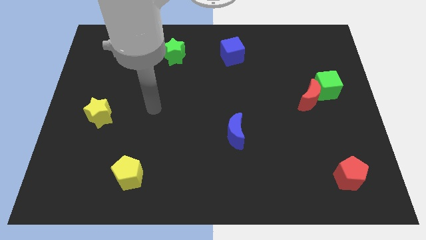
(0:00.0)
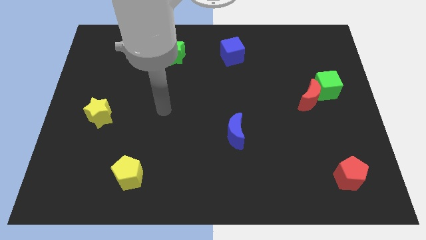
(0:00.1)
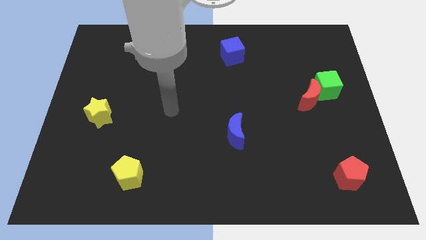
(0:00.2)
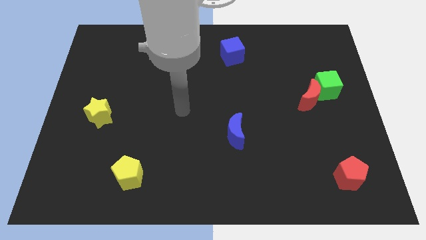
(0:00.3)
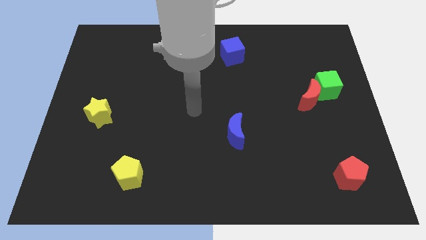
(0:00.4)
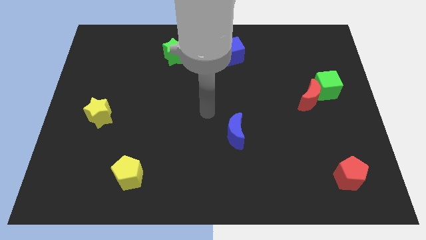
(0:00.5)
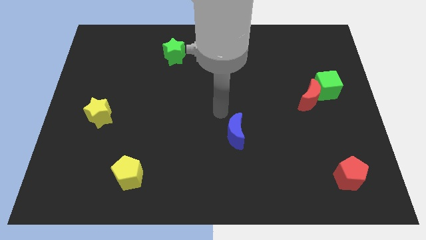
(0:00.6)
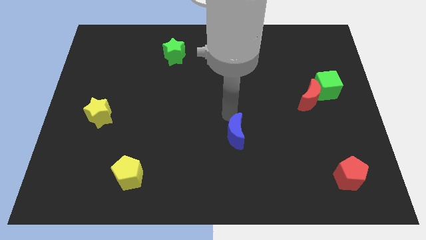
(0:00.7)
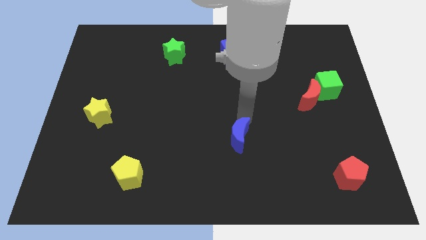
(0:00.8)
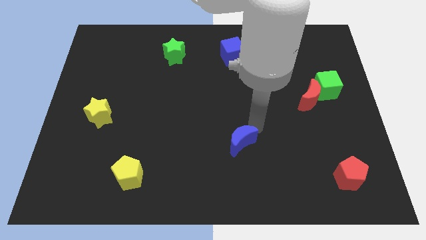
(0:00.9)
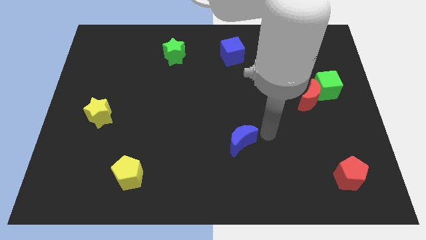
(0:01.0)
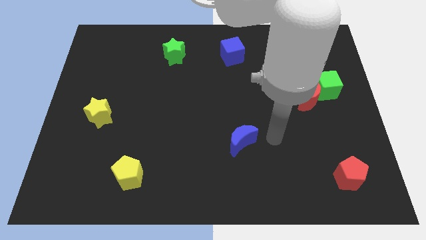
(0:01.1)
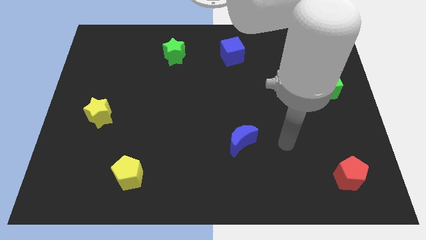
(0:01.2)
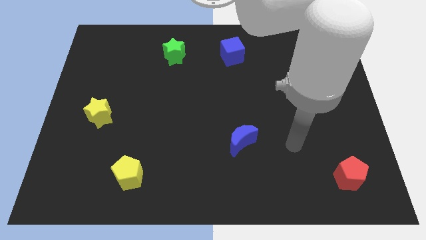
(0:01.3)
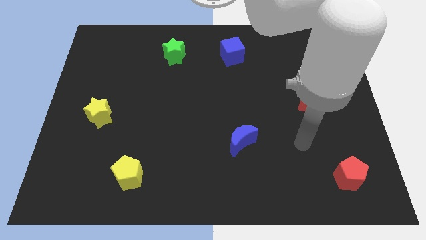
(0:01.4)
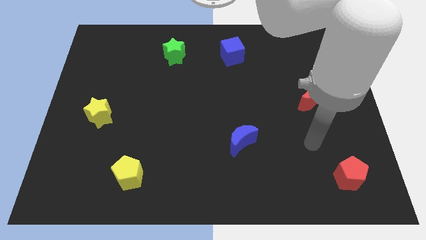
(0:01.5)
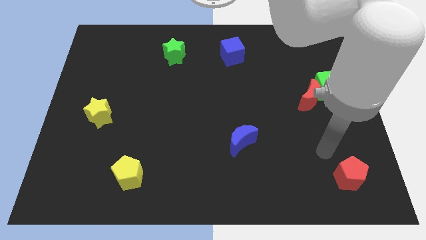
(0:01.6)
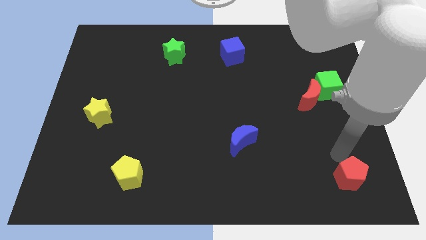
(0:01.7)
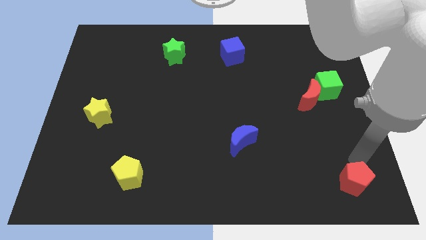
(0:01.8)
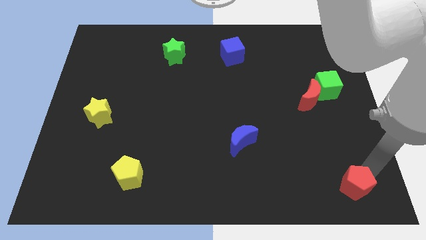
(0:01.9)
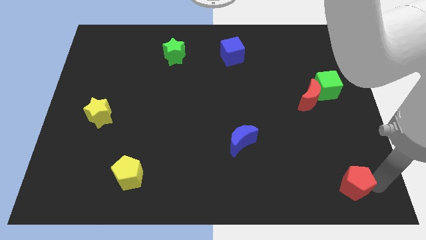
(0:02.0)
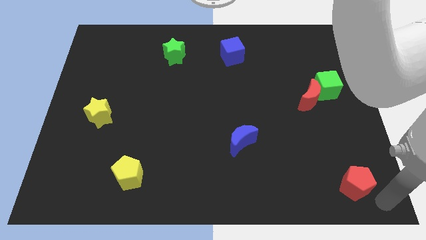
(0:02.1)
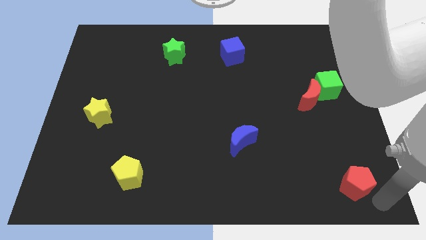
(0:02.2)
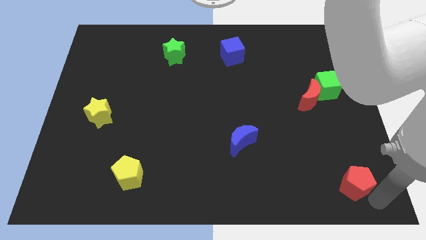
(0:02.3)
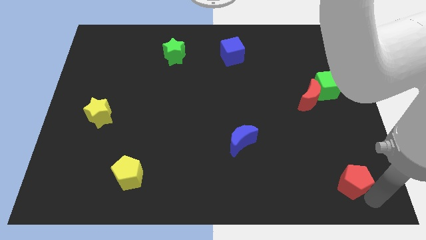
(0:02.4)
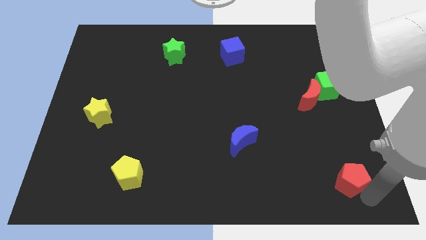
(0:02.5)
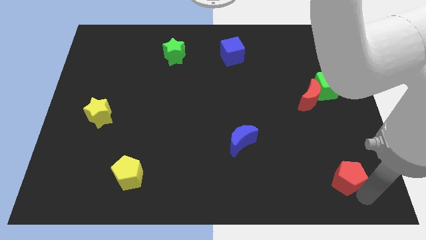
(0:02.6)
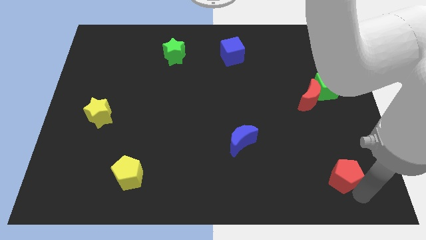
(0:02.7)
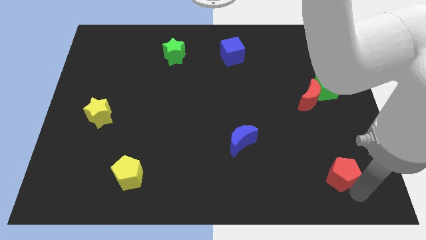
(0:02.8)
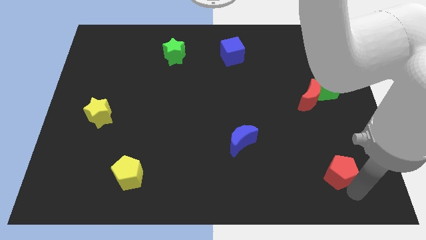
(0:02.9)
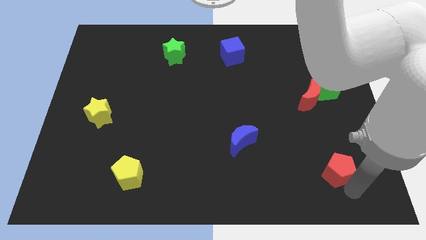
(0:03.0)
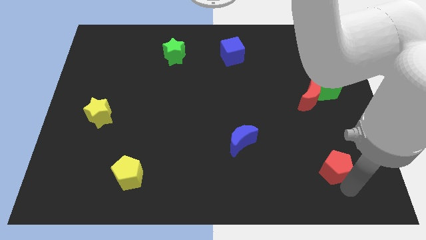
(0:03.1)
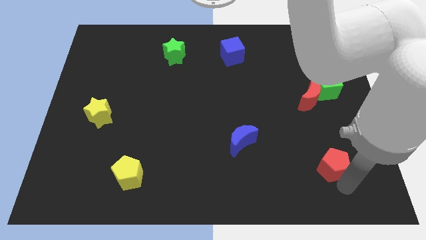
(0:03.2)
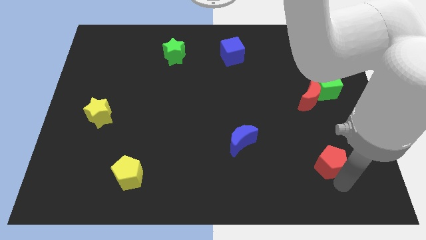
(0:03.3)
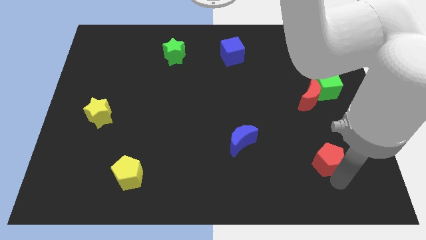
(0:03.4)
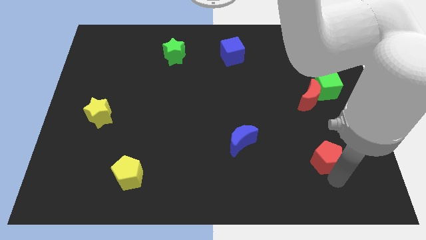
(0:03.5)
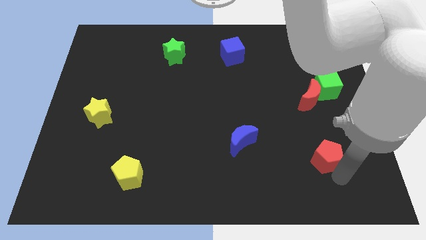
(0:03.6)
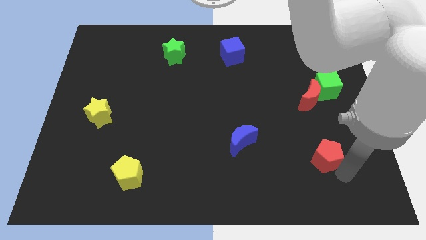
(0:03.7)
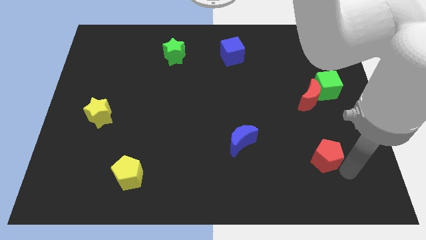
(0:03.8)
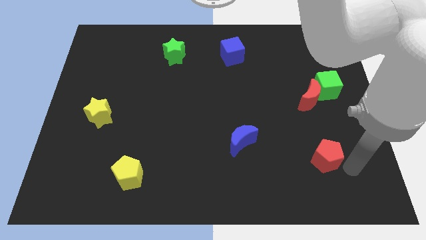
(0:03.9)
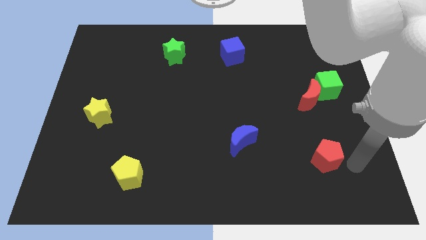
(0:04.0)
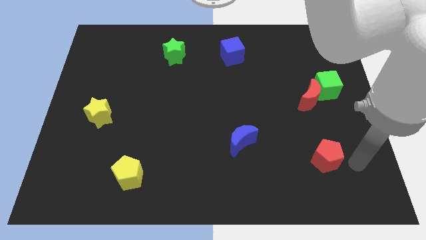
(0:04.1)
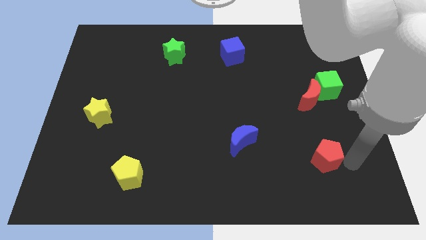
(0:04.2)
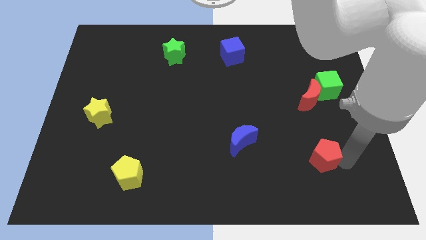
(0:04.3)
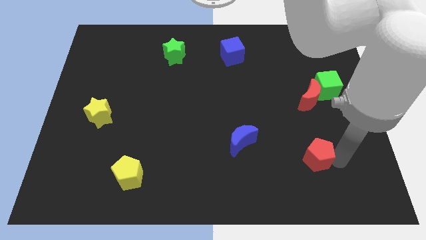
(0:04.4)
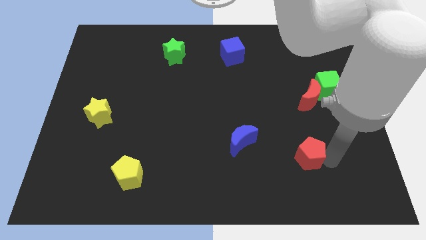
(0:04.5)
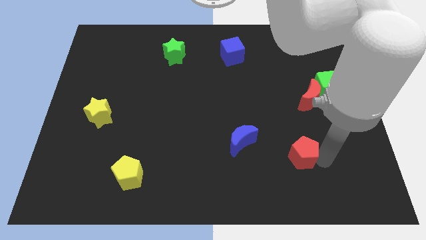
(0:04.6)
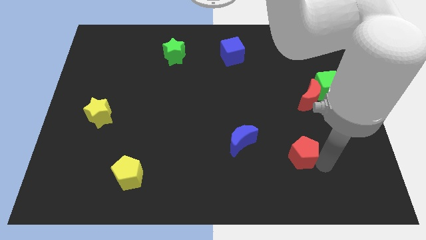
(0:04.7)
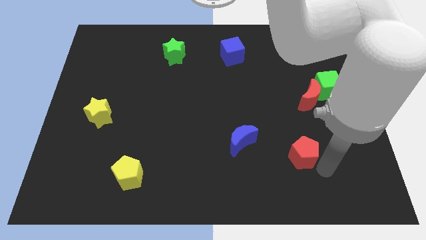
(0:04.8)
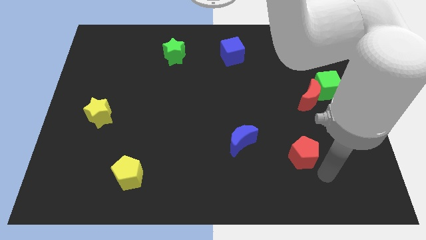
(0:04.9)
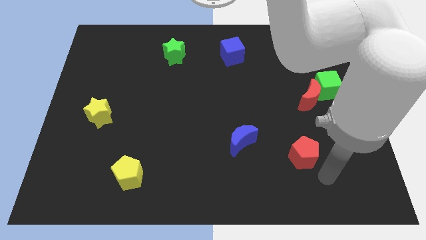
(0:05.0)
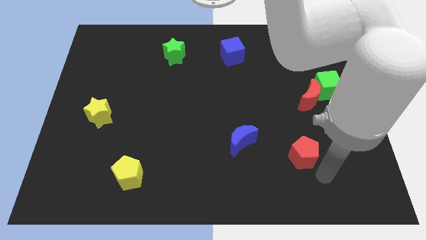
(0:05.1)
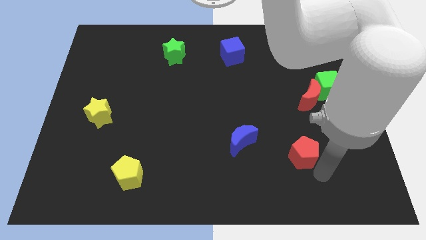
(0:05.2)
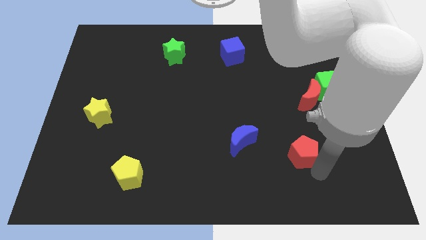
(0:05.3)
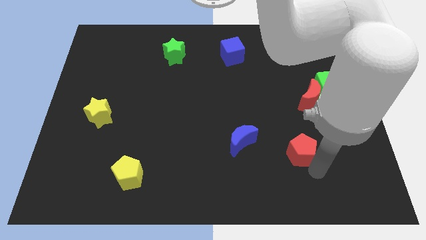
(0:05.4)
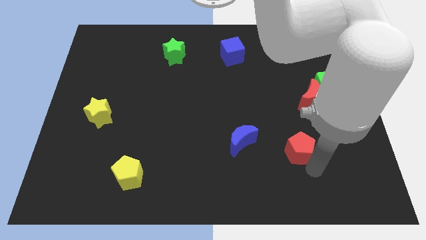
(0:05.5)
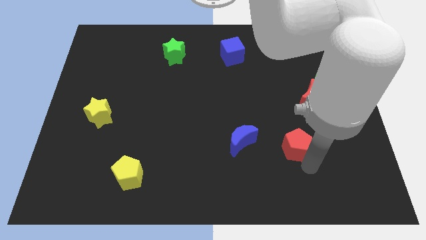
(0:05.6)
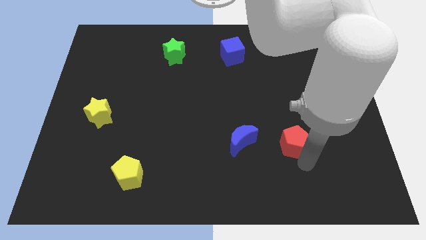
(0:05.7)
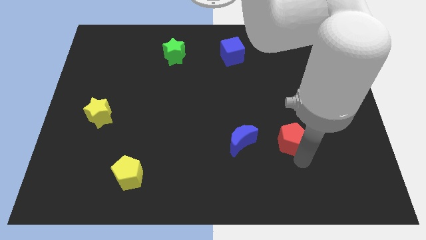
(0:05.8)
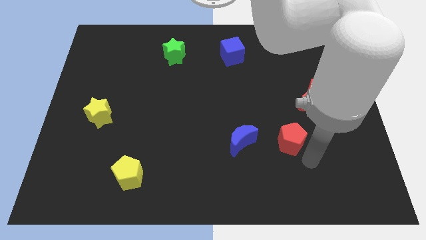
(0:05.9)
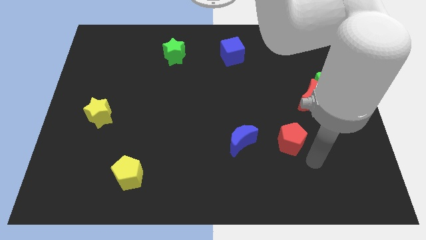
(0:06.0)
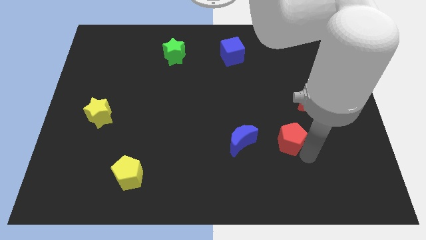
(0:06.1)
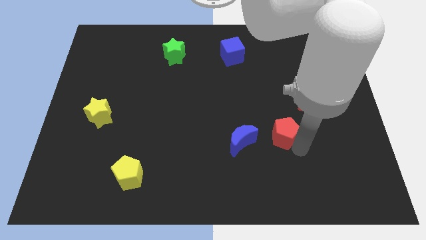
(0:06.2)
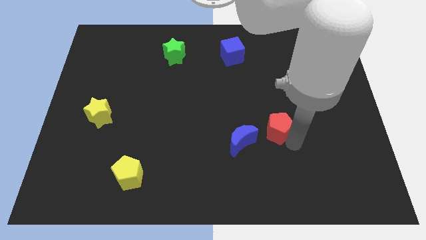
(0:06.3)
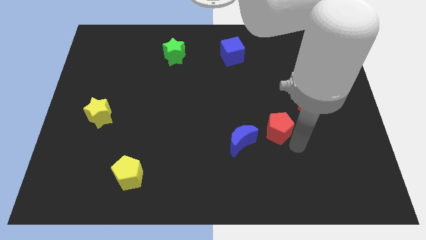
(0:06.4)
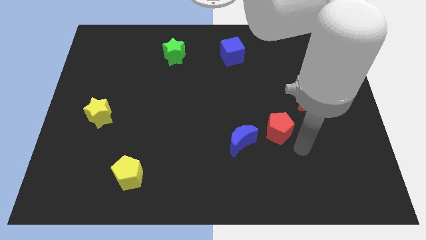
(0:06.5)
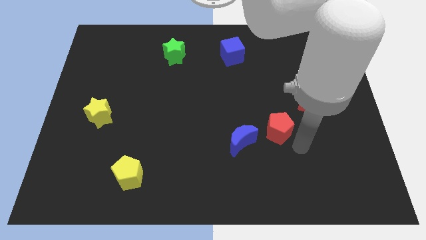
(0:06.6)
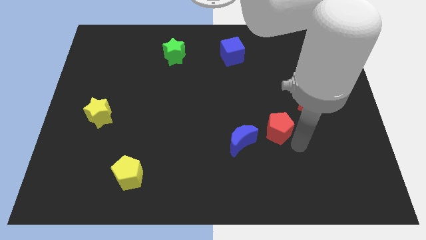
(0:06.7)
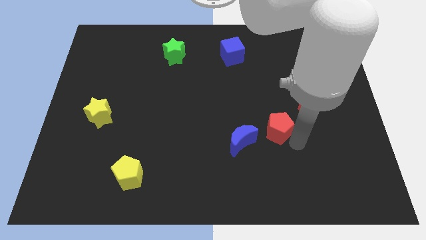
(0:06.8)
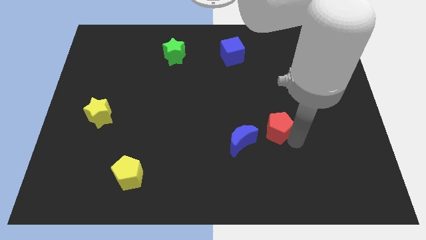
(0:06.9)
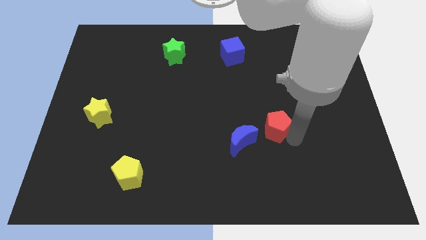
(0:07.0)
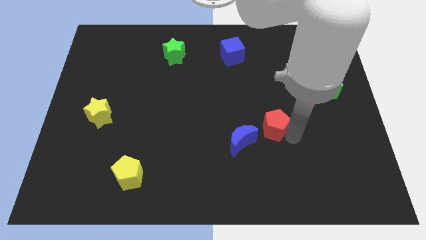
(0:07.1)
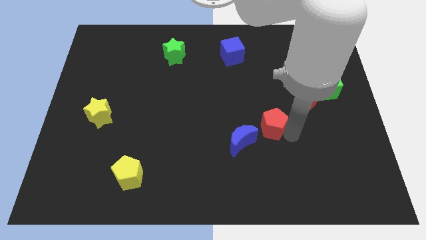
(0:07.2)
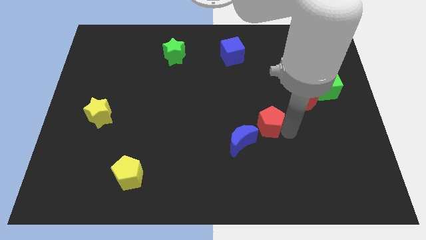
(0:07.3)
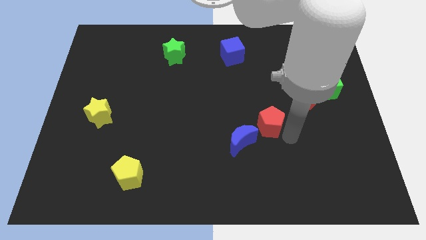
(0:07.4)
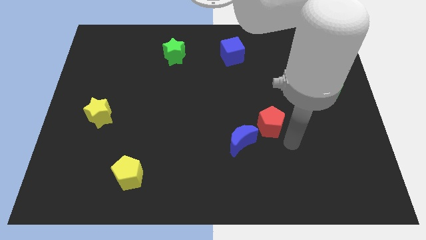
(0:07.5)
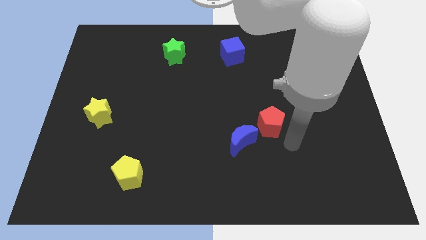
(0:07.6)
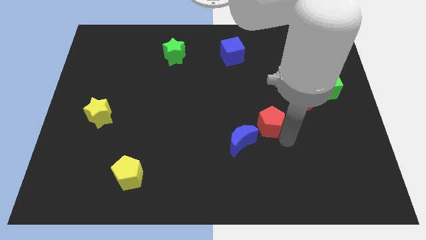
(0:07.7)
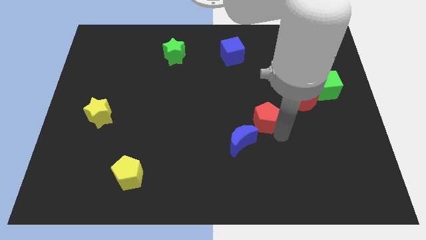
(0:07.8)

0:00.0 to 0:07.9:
slide the red pentagon diagonally upwards and to the left
